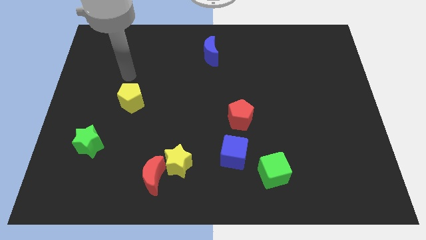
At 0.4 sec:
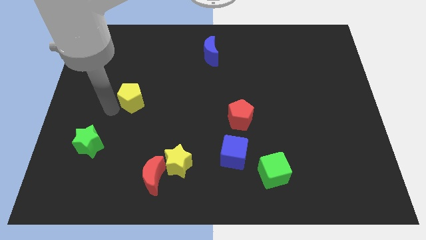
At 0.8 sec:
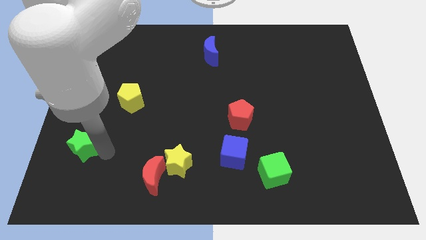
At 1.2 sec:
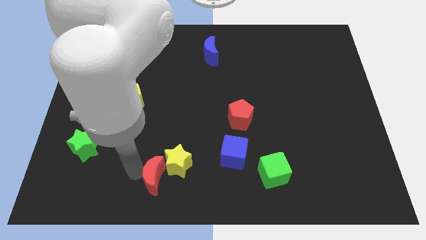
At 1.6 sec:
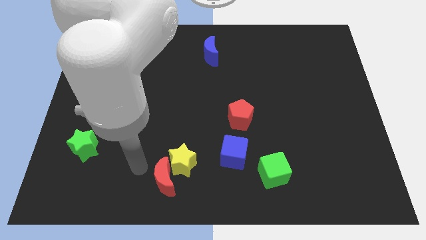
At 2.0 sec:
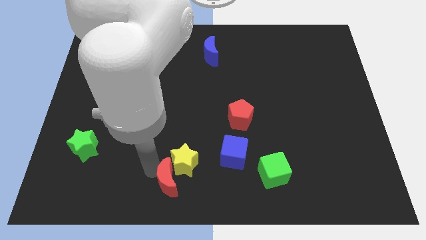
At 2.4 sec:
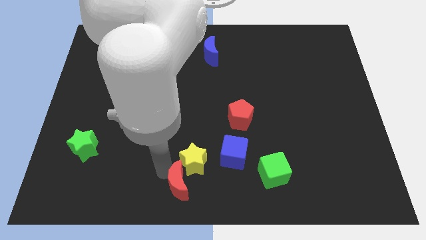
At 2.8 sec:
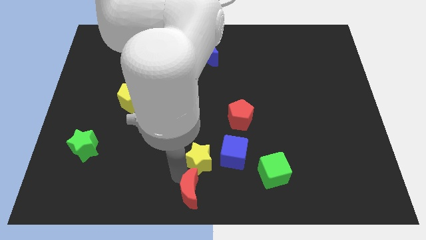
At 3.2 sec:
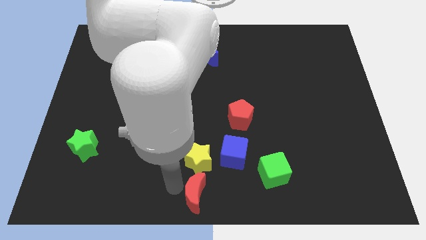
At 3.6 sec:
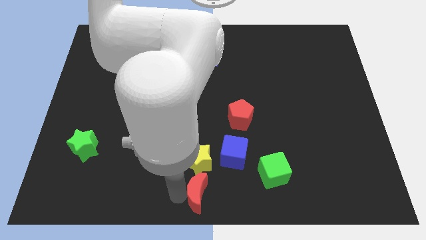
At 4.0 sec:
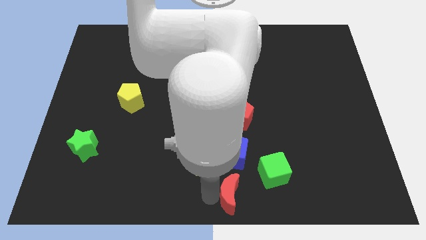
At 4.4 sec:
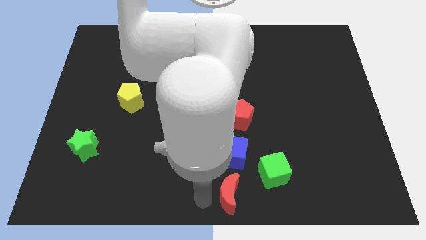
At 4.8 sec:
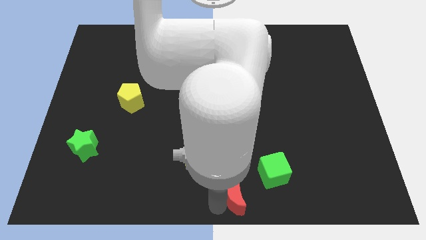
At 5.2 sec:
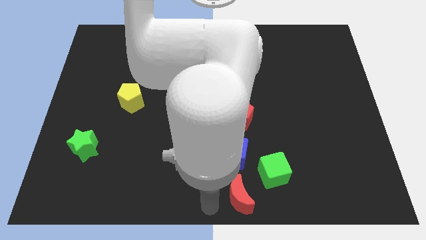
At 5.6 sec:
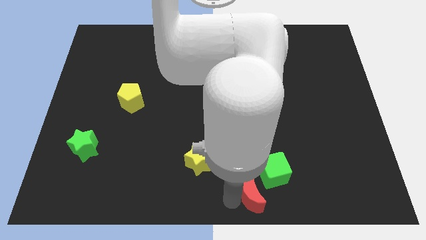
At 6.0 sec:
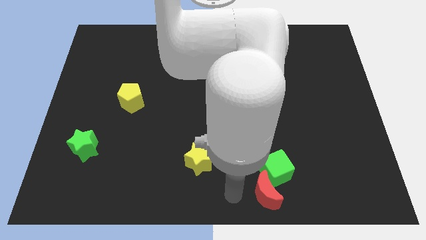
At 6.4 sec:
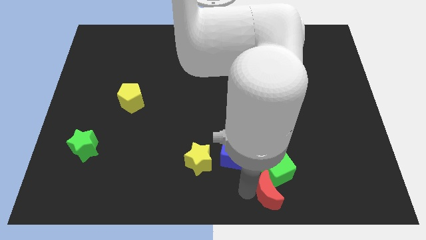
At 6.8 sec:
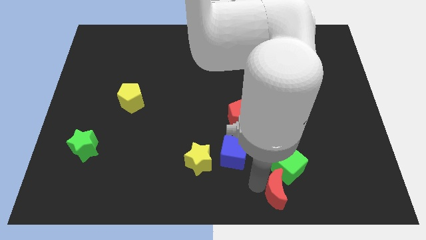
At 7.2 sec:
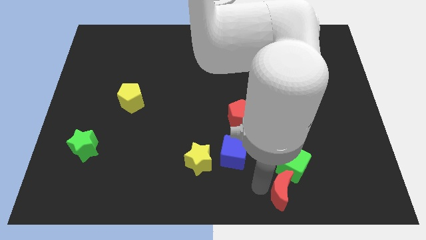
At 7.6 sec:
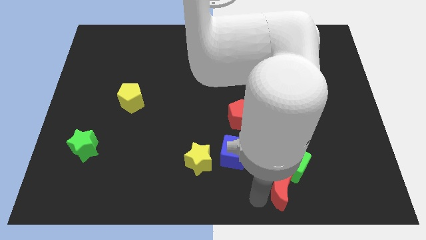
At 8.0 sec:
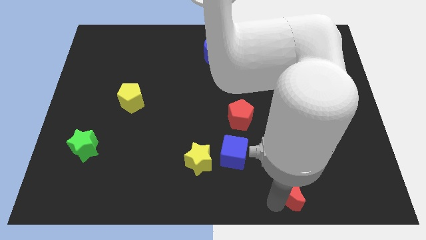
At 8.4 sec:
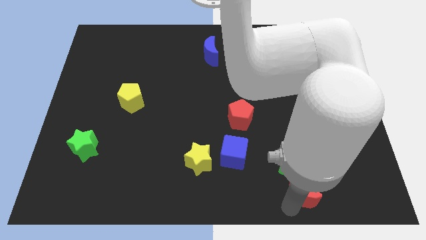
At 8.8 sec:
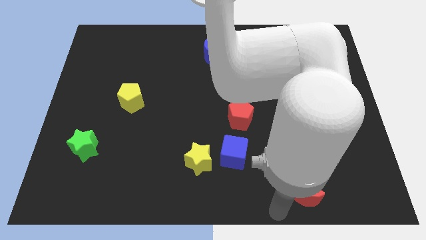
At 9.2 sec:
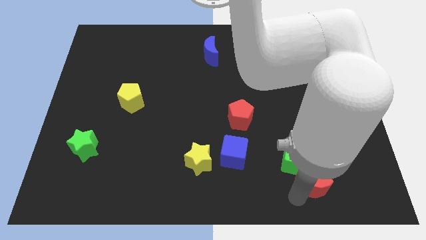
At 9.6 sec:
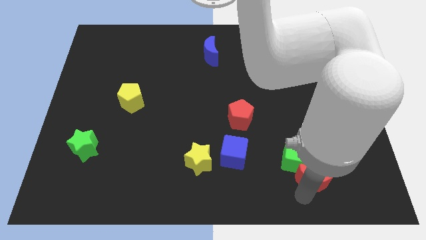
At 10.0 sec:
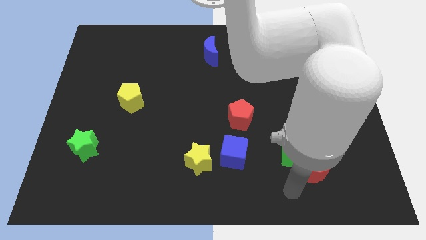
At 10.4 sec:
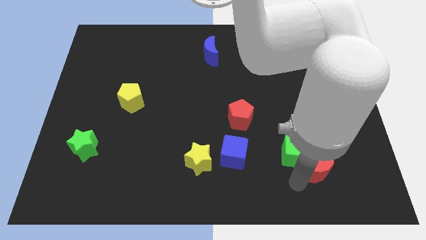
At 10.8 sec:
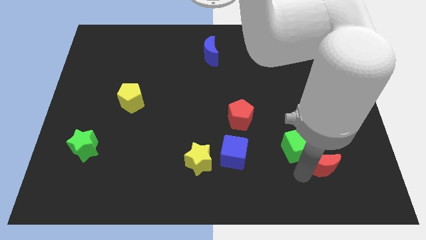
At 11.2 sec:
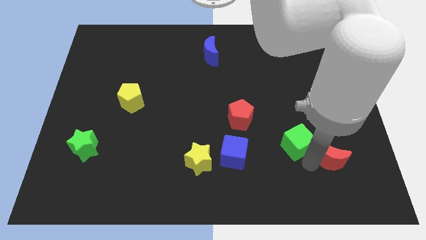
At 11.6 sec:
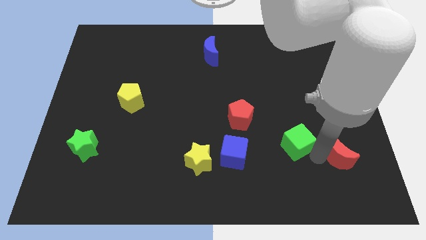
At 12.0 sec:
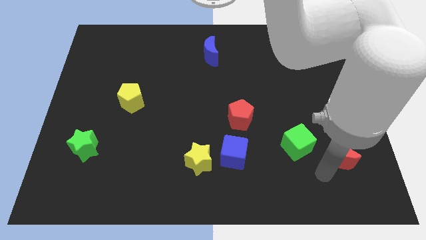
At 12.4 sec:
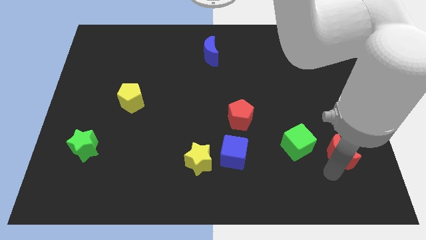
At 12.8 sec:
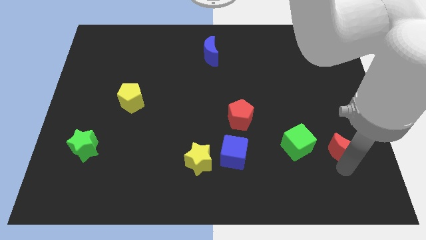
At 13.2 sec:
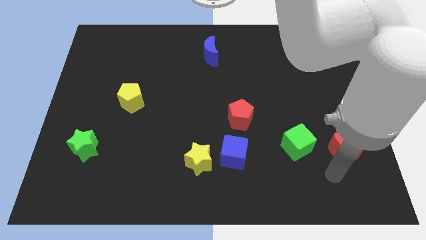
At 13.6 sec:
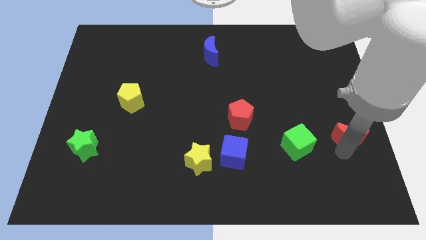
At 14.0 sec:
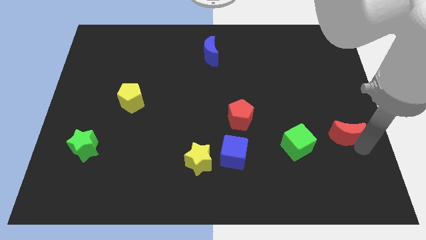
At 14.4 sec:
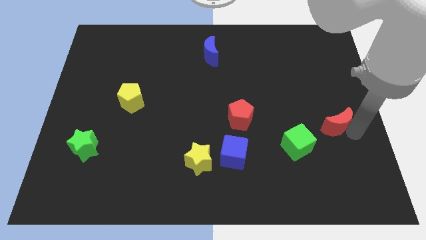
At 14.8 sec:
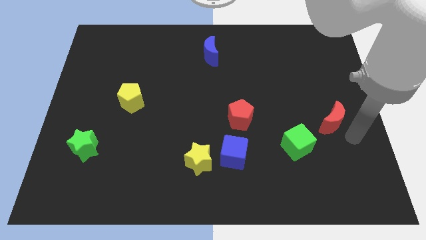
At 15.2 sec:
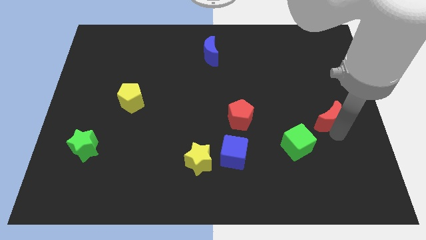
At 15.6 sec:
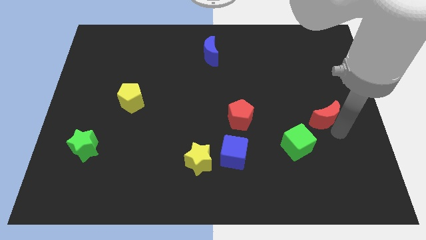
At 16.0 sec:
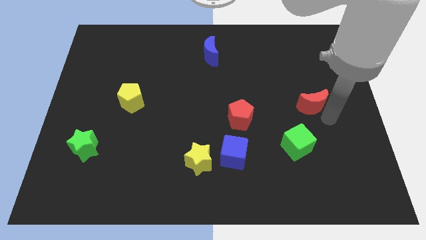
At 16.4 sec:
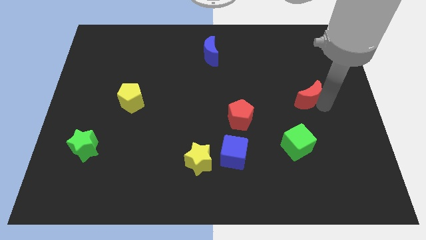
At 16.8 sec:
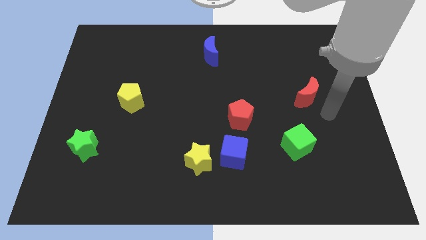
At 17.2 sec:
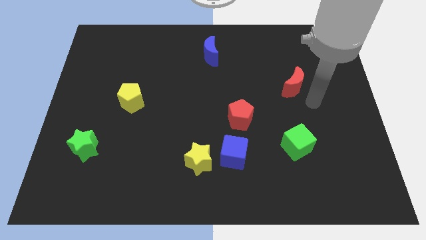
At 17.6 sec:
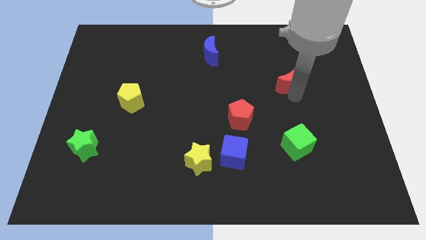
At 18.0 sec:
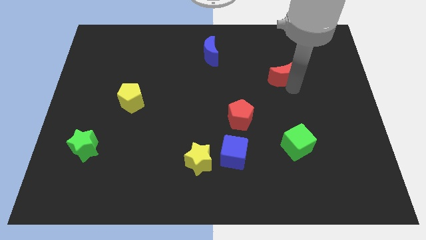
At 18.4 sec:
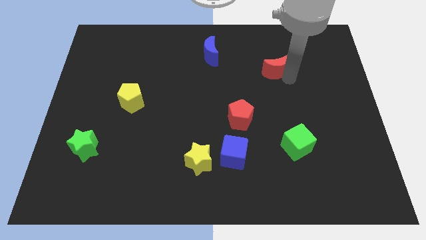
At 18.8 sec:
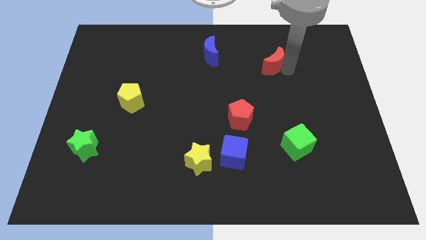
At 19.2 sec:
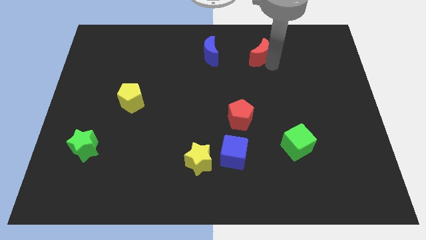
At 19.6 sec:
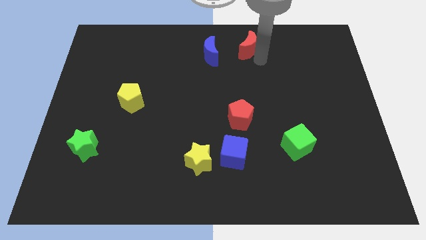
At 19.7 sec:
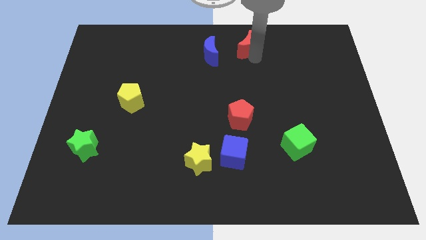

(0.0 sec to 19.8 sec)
move the red moon to the top

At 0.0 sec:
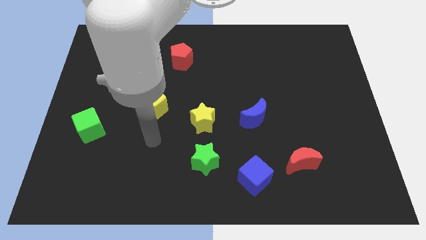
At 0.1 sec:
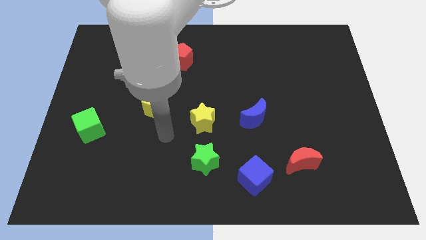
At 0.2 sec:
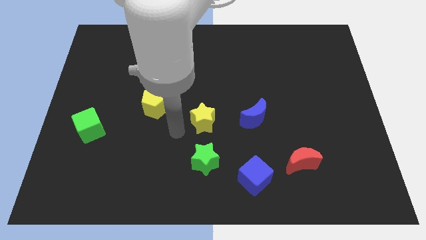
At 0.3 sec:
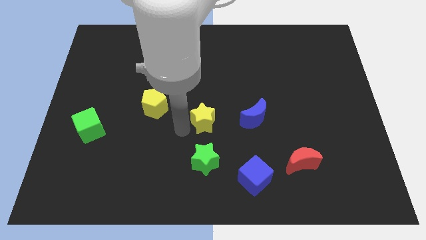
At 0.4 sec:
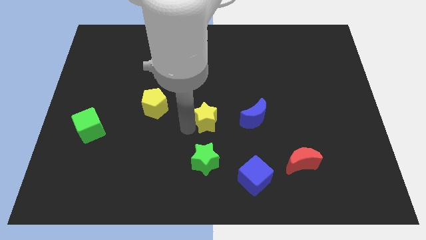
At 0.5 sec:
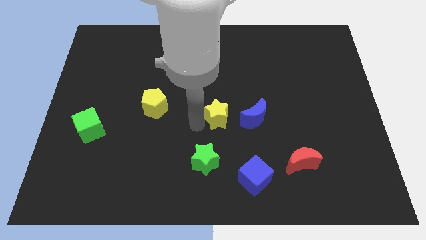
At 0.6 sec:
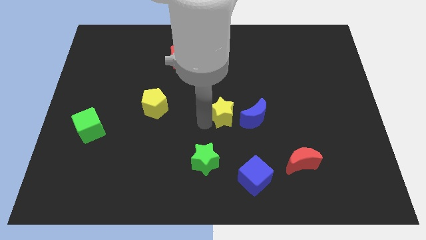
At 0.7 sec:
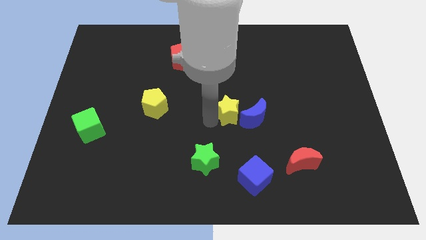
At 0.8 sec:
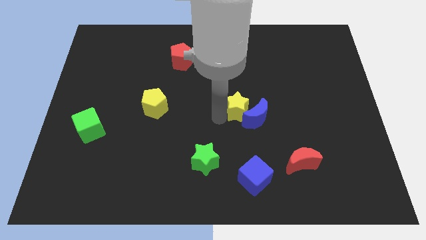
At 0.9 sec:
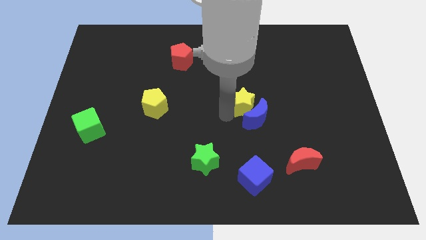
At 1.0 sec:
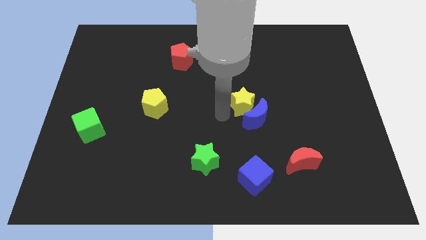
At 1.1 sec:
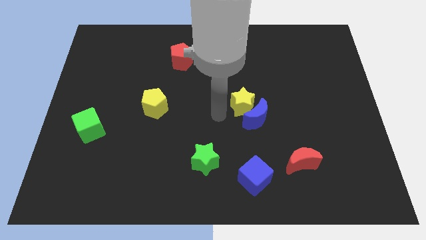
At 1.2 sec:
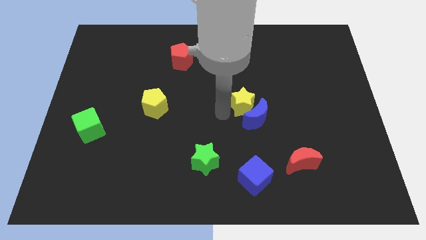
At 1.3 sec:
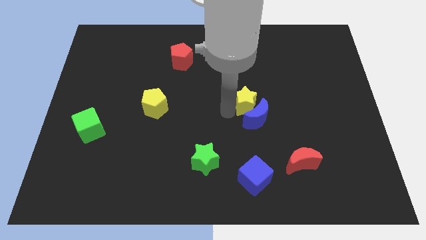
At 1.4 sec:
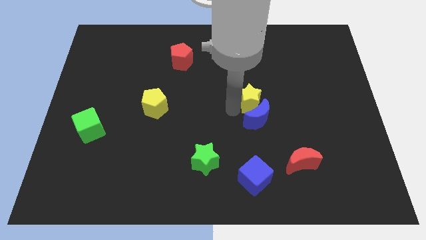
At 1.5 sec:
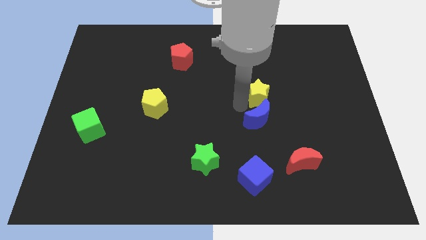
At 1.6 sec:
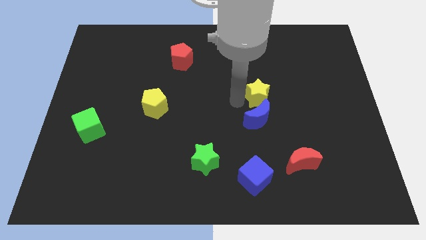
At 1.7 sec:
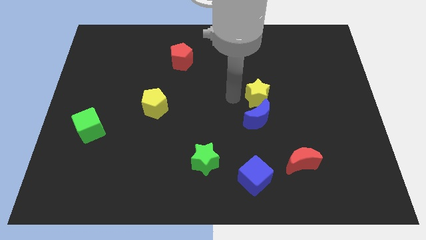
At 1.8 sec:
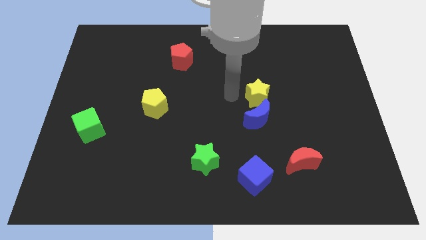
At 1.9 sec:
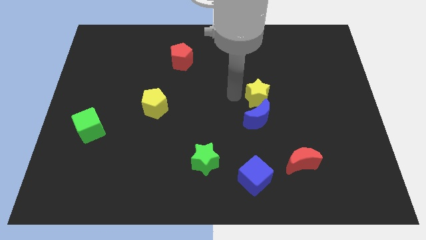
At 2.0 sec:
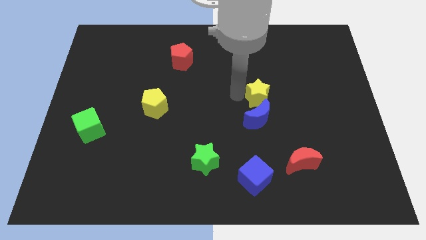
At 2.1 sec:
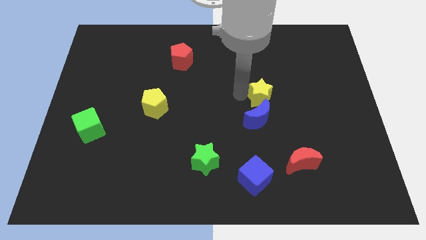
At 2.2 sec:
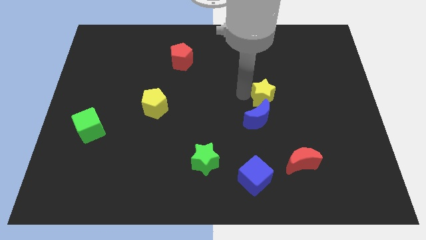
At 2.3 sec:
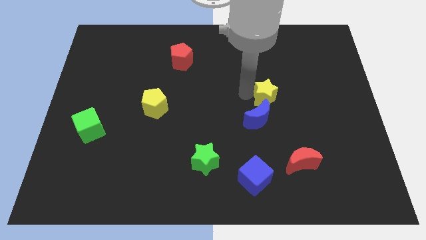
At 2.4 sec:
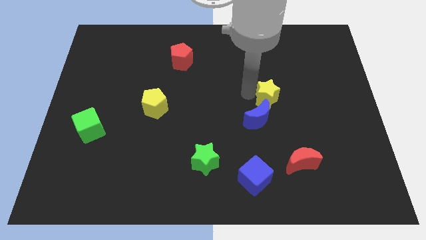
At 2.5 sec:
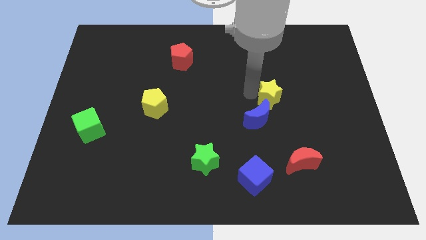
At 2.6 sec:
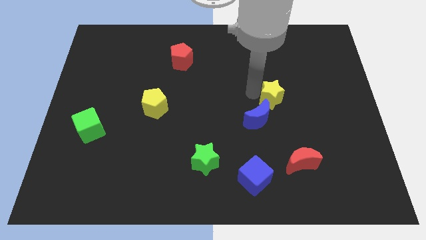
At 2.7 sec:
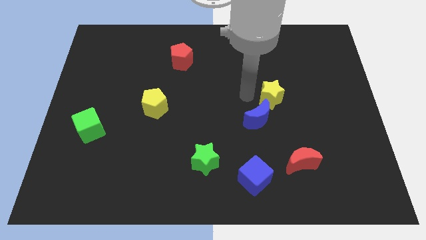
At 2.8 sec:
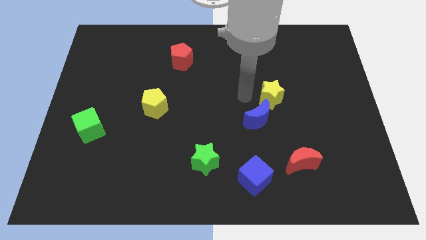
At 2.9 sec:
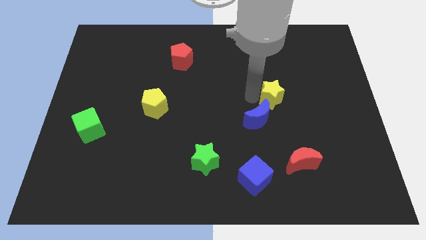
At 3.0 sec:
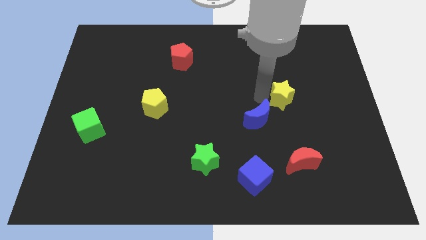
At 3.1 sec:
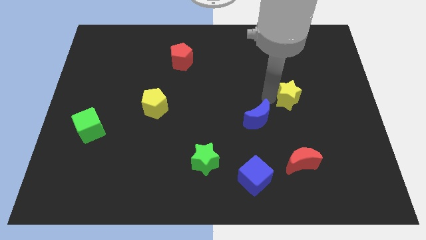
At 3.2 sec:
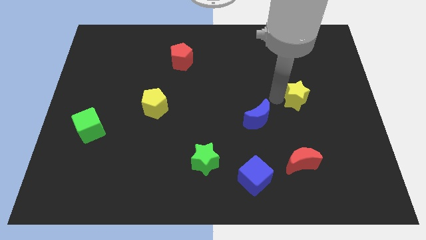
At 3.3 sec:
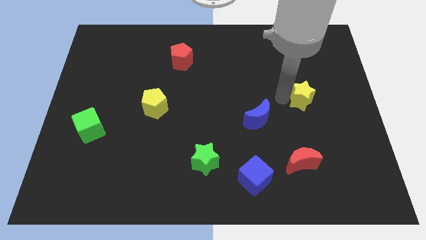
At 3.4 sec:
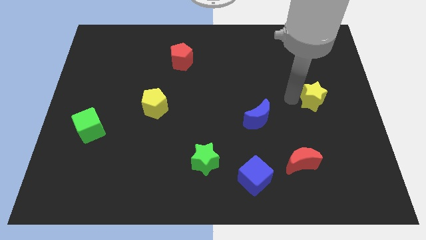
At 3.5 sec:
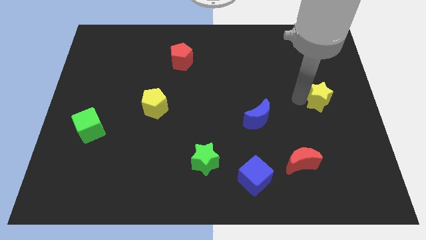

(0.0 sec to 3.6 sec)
move the yellow star to the right side
